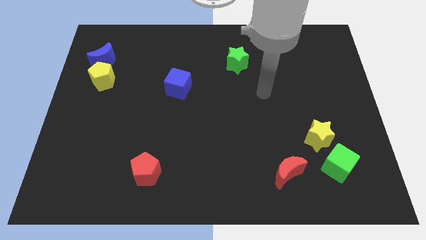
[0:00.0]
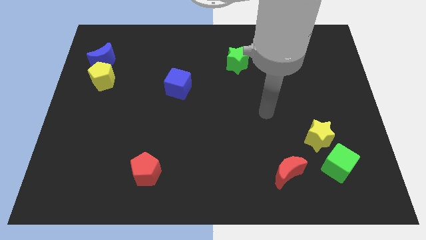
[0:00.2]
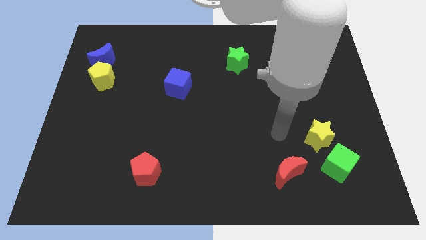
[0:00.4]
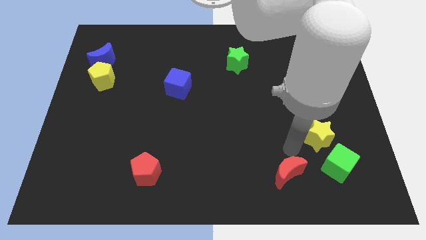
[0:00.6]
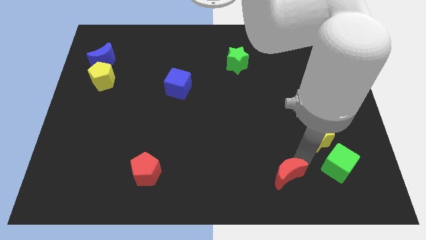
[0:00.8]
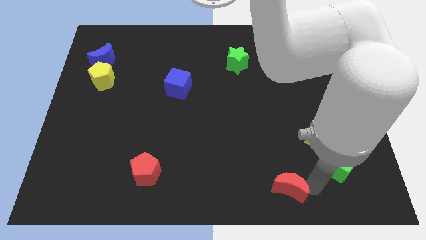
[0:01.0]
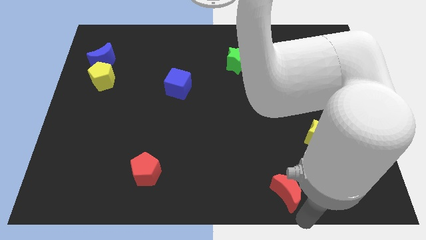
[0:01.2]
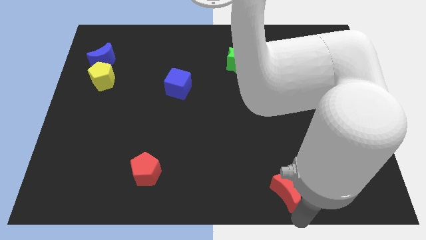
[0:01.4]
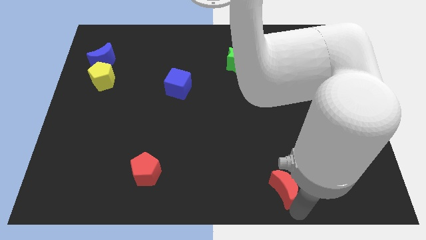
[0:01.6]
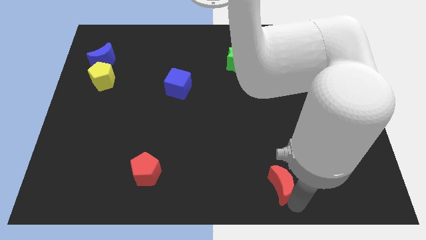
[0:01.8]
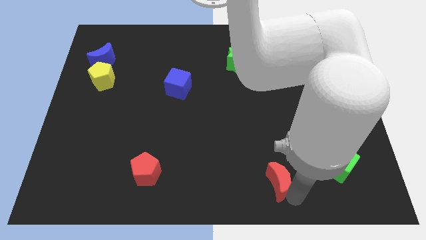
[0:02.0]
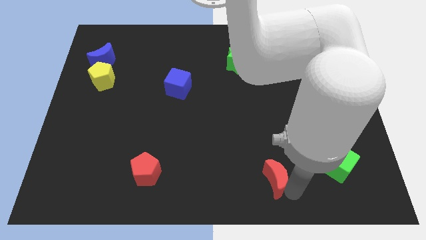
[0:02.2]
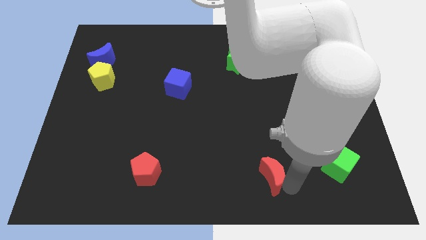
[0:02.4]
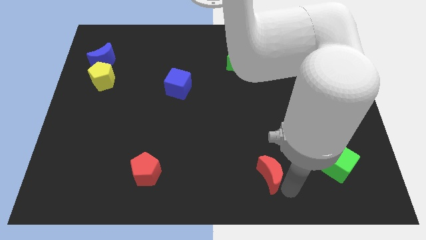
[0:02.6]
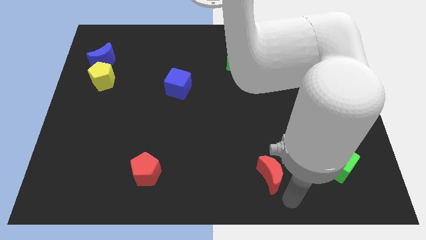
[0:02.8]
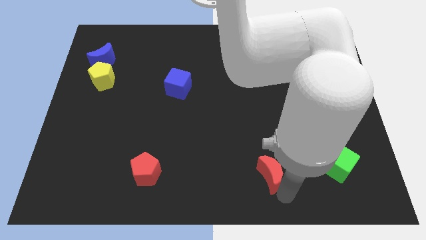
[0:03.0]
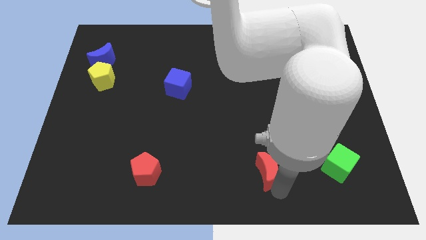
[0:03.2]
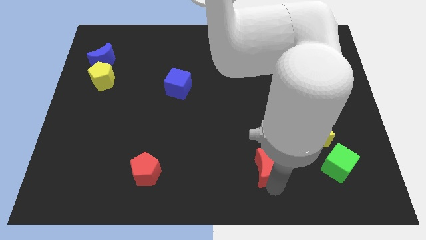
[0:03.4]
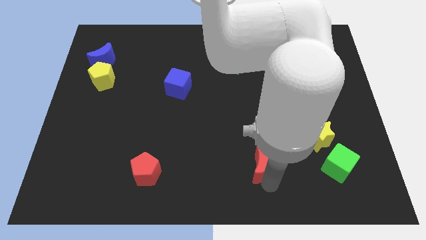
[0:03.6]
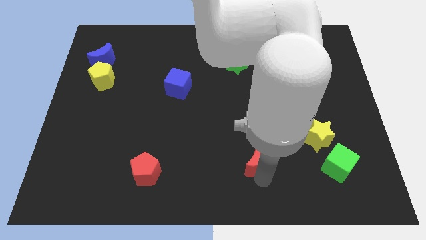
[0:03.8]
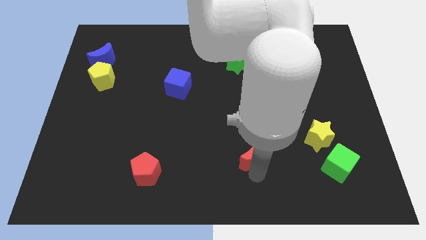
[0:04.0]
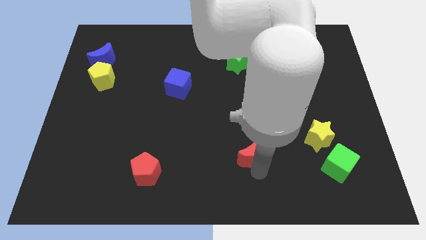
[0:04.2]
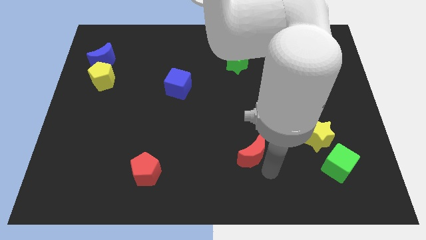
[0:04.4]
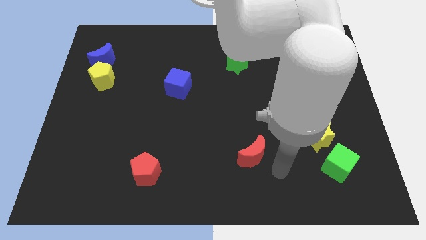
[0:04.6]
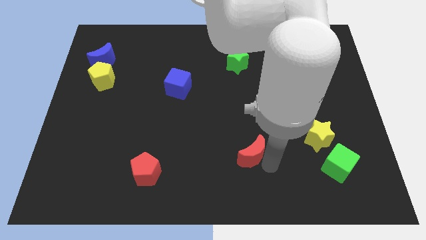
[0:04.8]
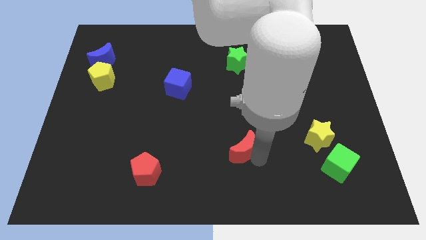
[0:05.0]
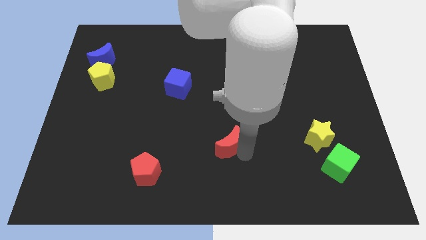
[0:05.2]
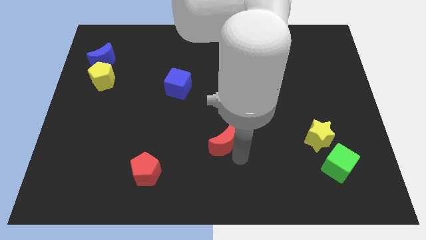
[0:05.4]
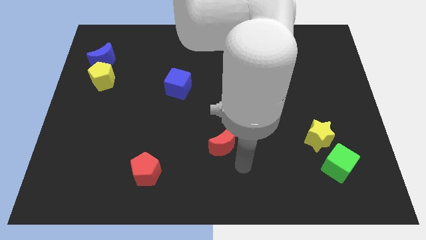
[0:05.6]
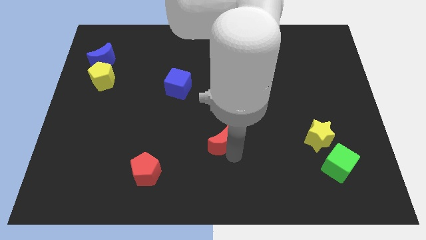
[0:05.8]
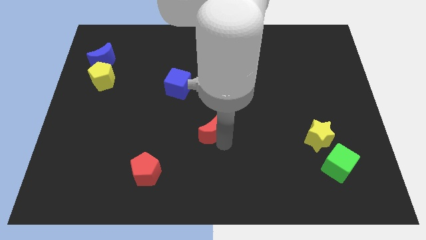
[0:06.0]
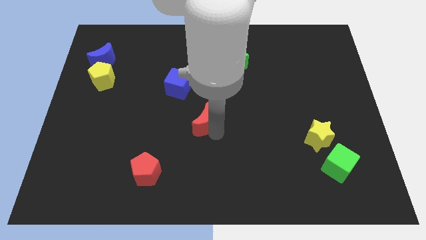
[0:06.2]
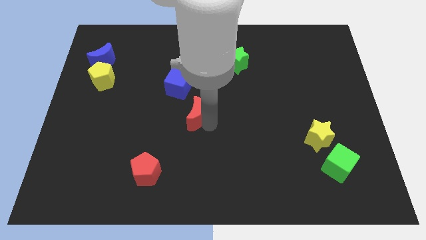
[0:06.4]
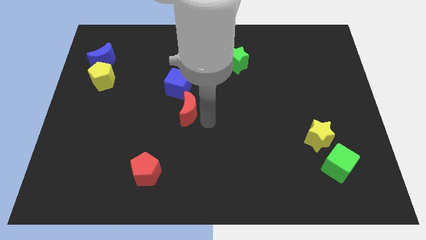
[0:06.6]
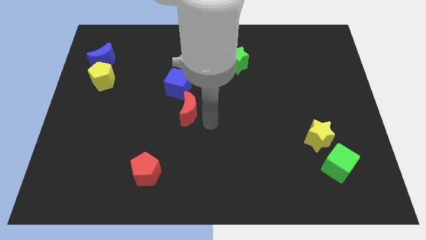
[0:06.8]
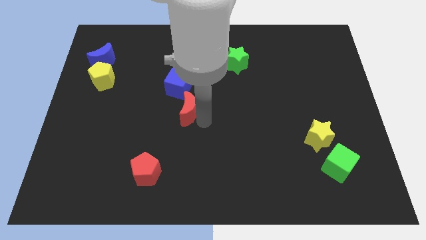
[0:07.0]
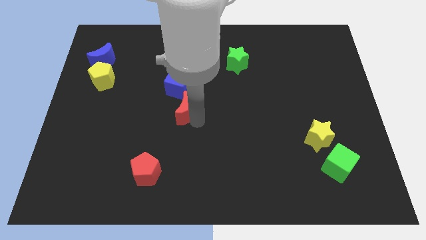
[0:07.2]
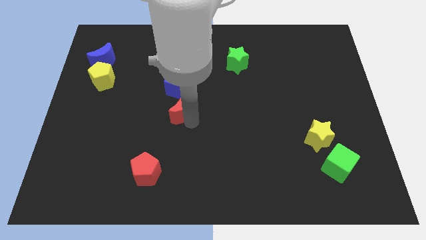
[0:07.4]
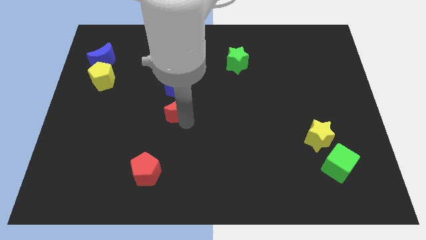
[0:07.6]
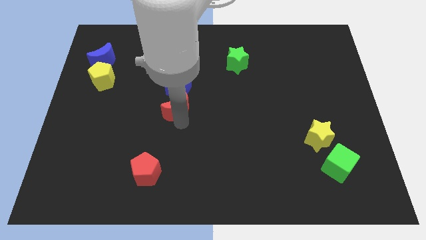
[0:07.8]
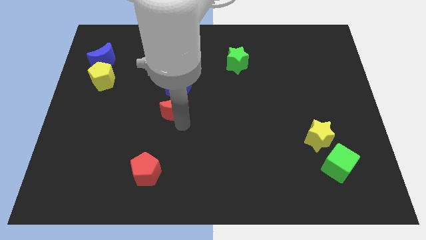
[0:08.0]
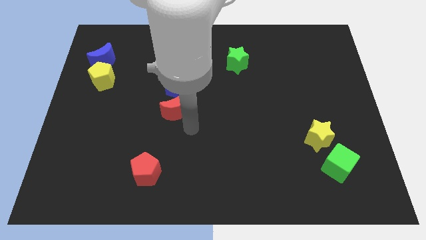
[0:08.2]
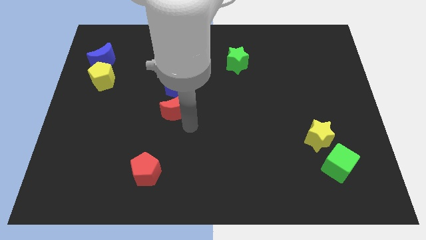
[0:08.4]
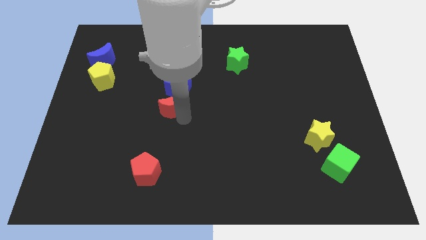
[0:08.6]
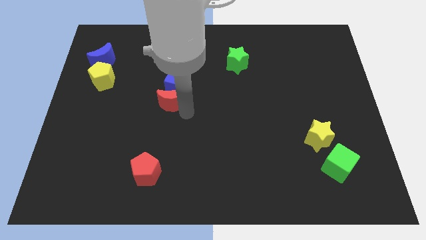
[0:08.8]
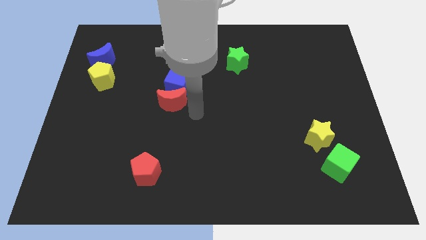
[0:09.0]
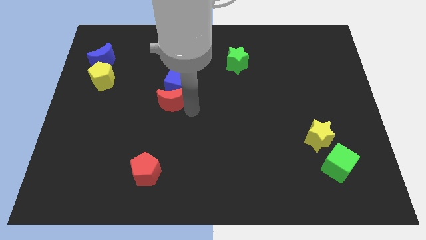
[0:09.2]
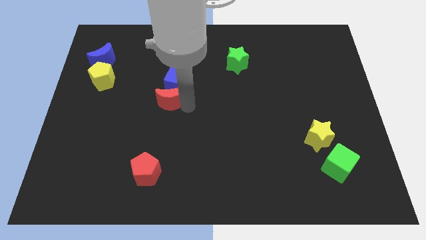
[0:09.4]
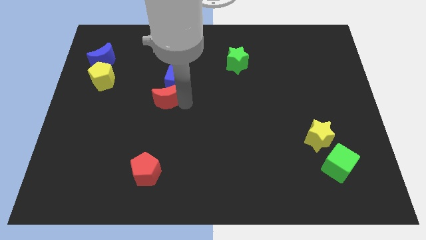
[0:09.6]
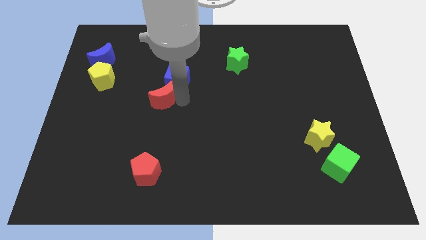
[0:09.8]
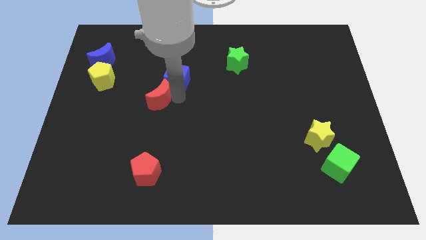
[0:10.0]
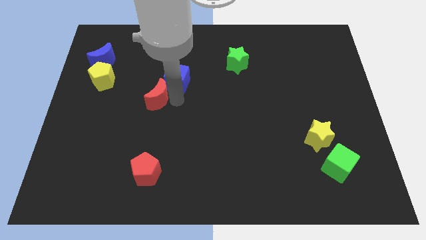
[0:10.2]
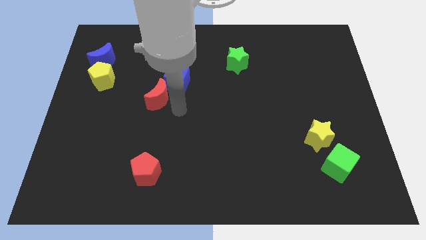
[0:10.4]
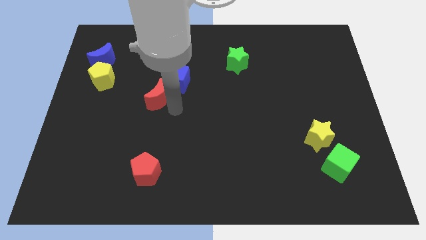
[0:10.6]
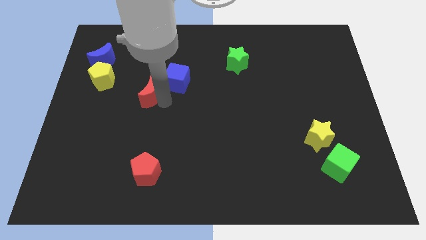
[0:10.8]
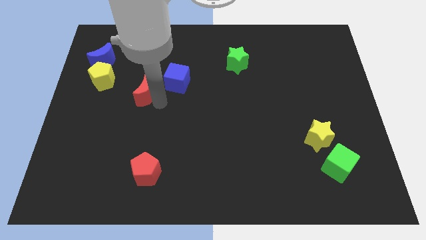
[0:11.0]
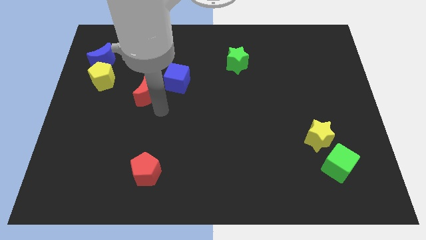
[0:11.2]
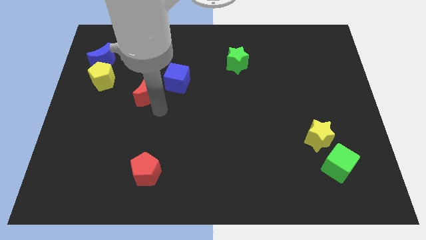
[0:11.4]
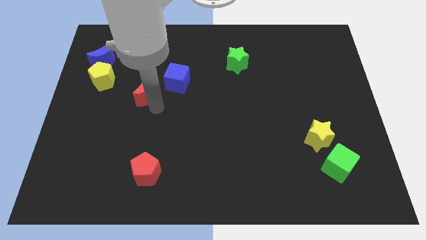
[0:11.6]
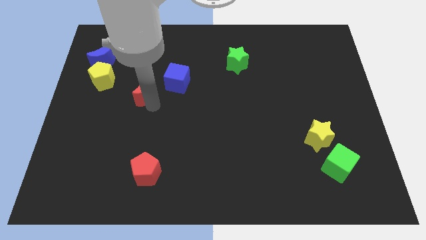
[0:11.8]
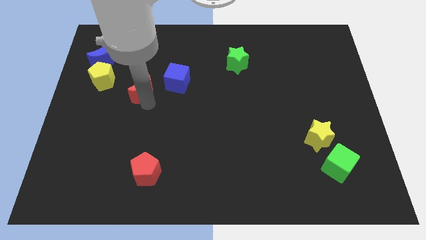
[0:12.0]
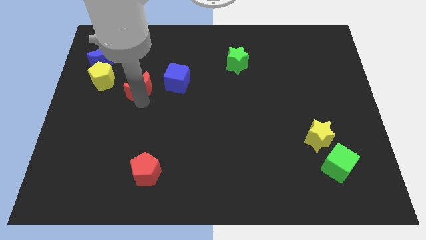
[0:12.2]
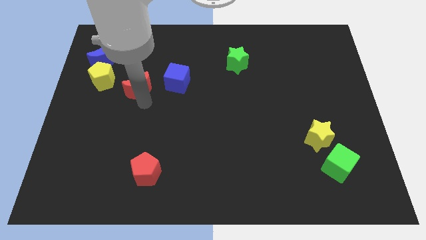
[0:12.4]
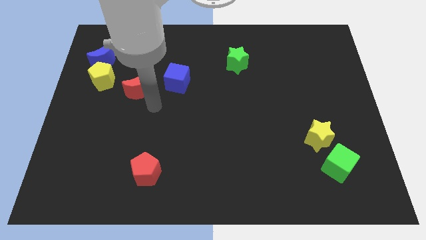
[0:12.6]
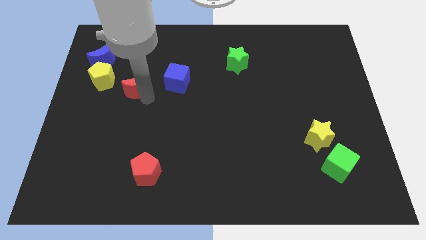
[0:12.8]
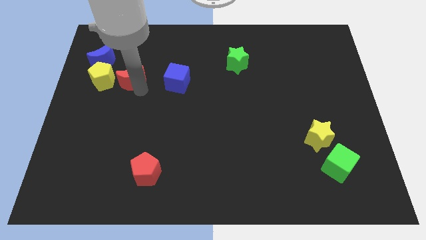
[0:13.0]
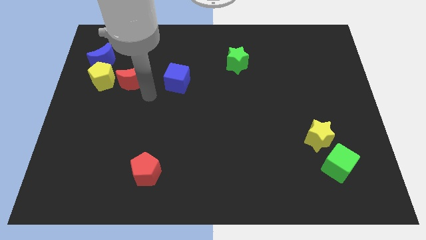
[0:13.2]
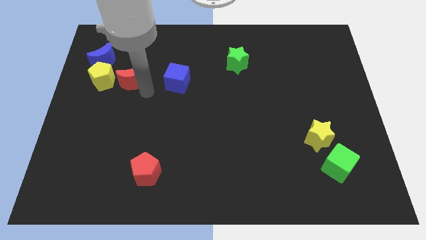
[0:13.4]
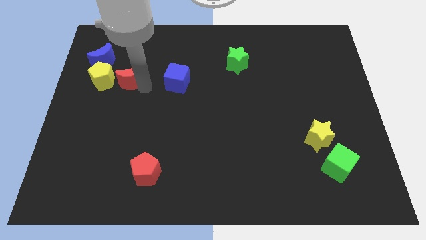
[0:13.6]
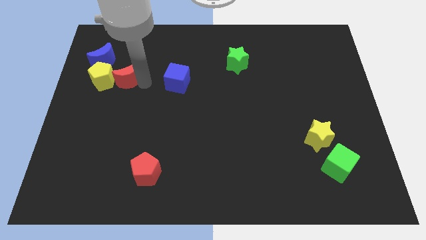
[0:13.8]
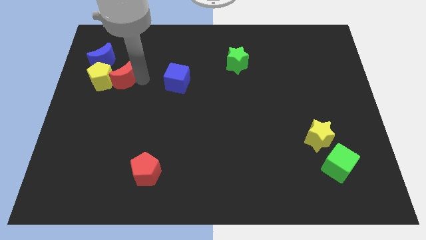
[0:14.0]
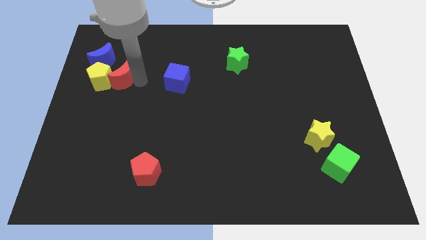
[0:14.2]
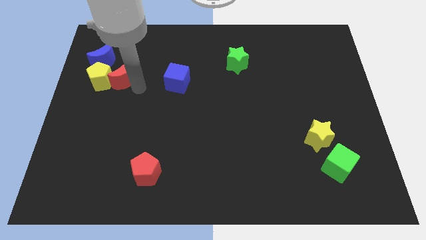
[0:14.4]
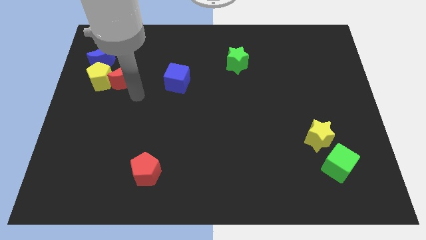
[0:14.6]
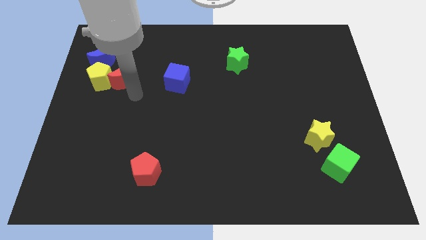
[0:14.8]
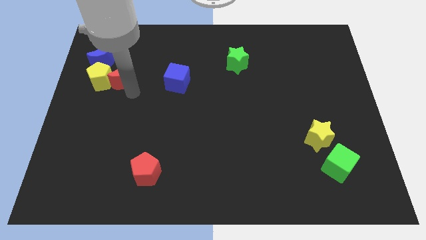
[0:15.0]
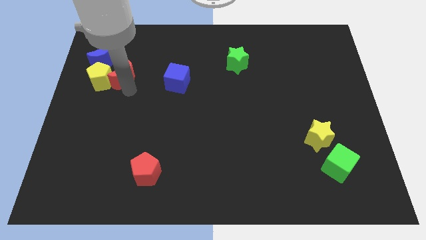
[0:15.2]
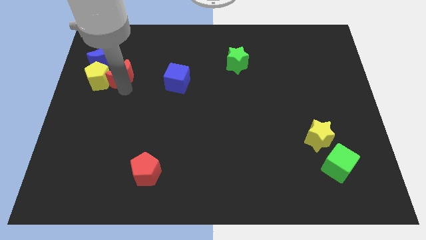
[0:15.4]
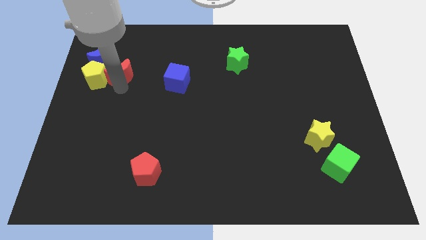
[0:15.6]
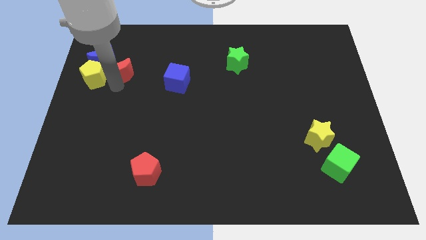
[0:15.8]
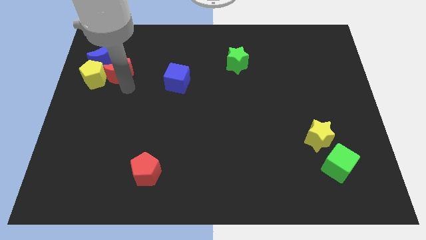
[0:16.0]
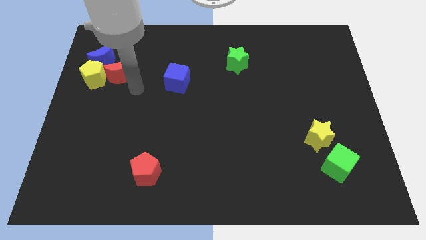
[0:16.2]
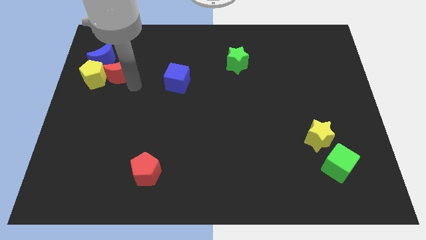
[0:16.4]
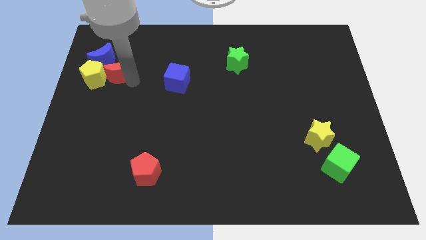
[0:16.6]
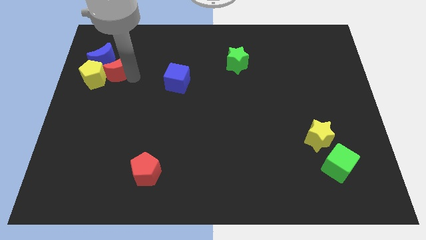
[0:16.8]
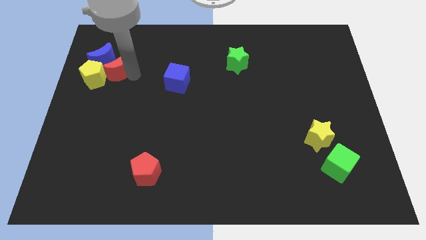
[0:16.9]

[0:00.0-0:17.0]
move the red moon close to the blue moon
